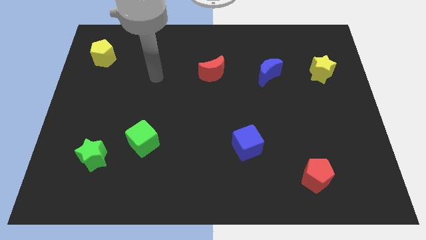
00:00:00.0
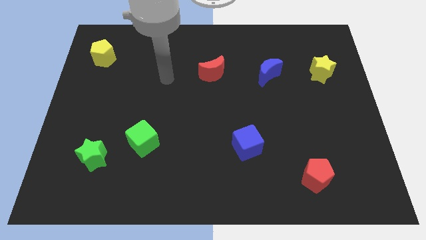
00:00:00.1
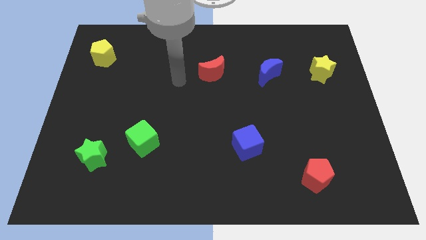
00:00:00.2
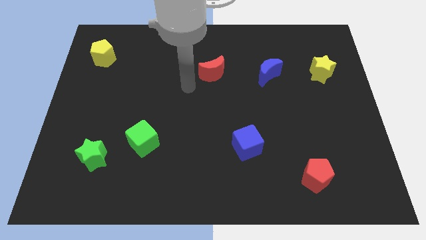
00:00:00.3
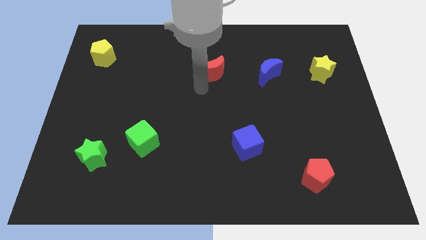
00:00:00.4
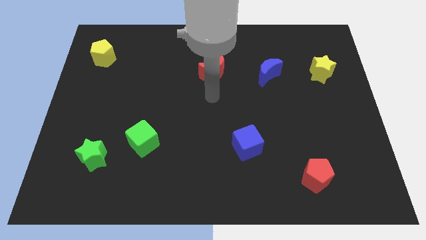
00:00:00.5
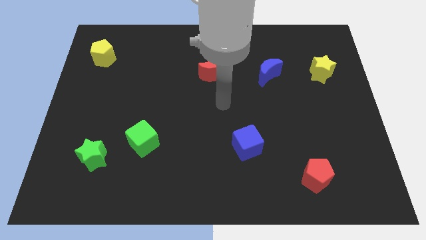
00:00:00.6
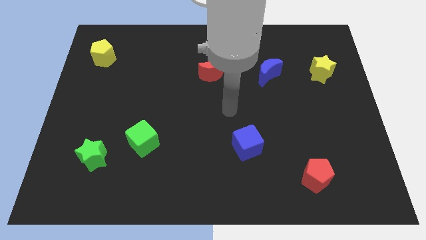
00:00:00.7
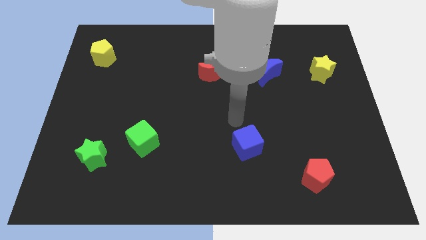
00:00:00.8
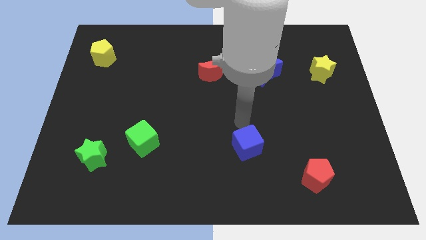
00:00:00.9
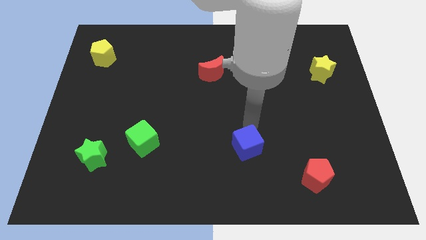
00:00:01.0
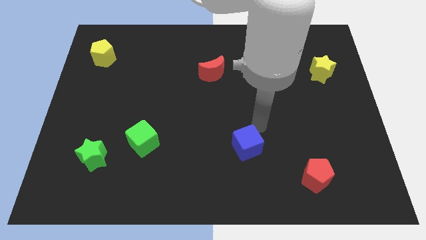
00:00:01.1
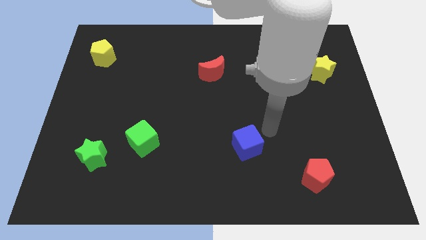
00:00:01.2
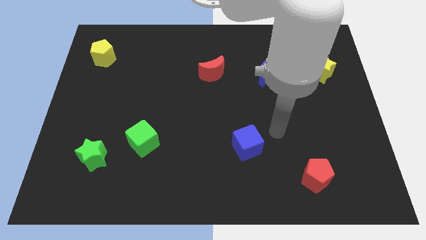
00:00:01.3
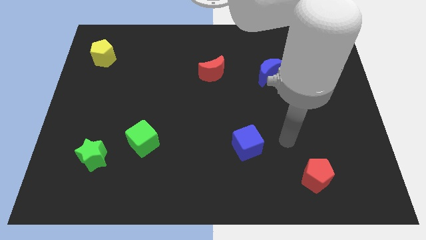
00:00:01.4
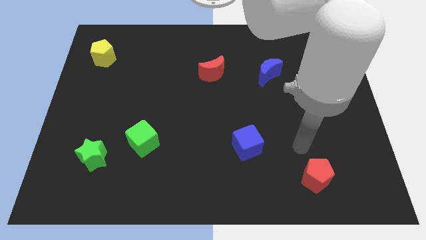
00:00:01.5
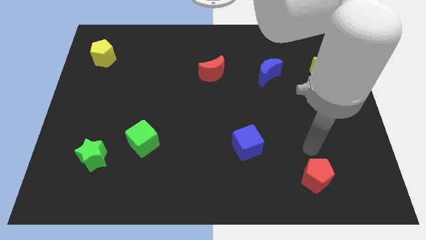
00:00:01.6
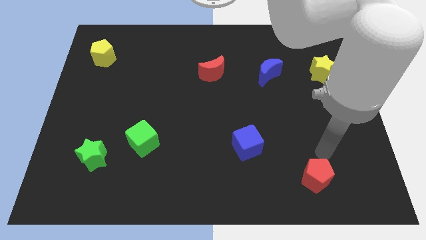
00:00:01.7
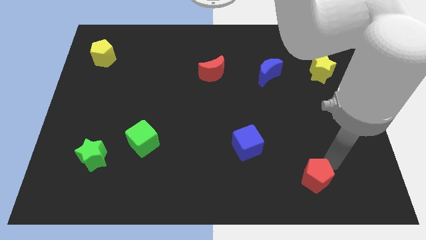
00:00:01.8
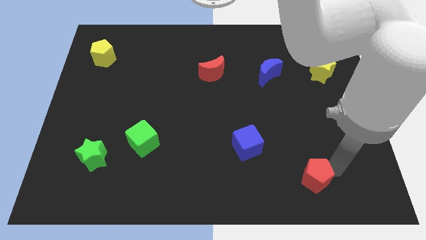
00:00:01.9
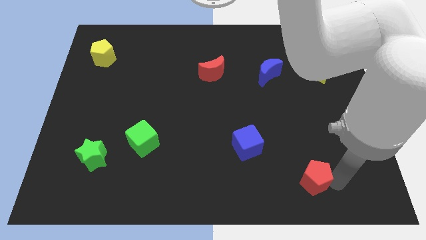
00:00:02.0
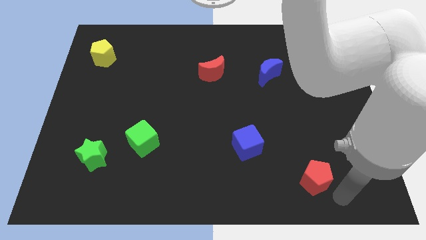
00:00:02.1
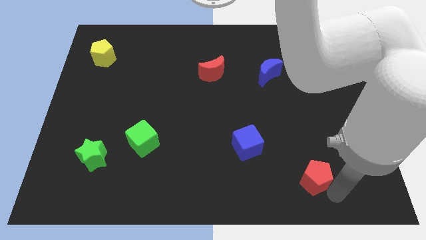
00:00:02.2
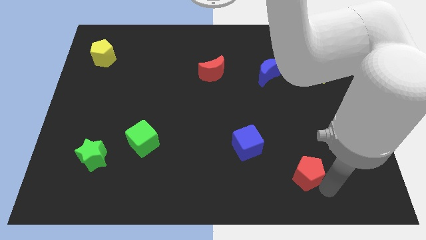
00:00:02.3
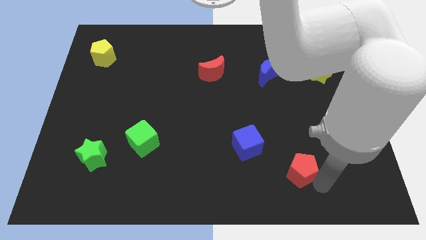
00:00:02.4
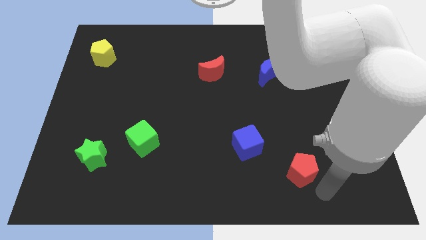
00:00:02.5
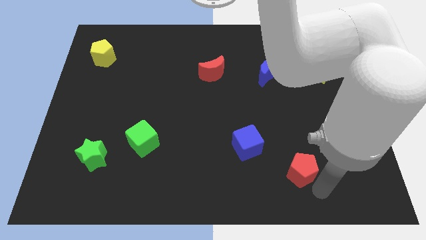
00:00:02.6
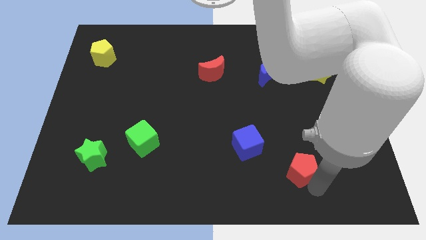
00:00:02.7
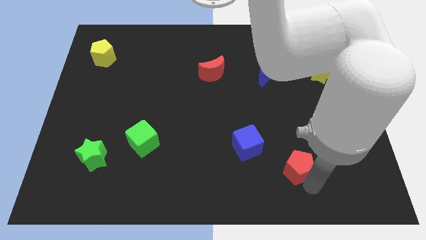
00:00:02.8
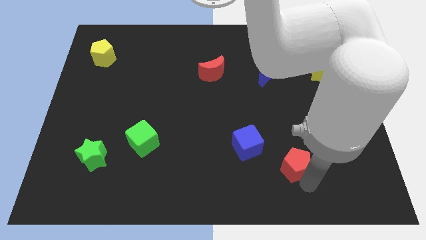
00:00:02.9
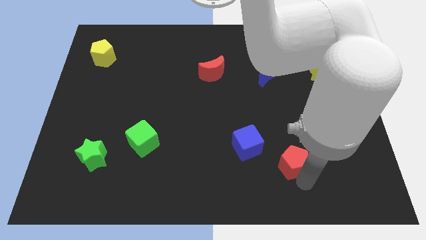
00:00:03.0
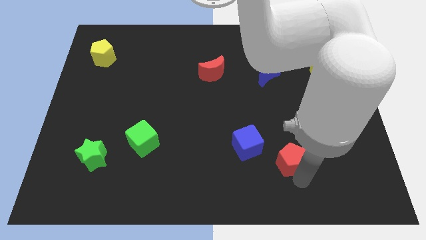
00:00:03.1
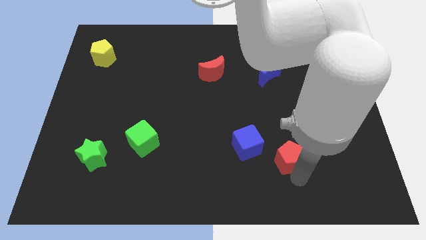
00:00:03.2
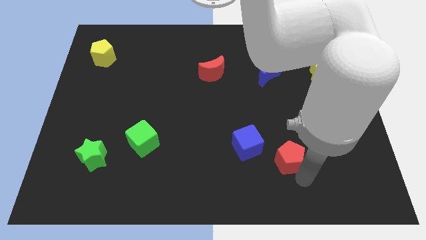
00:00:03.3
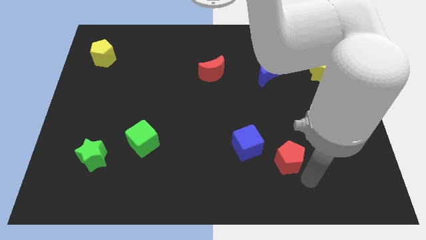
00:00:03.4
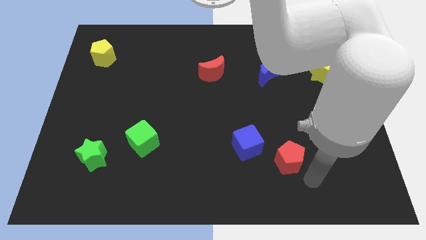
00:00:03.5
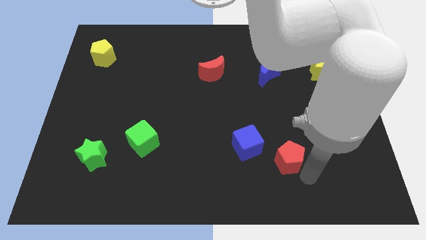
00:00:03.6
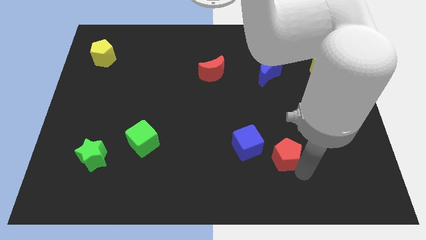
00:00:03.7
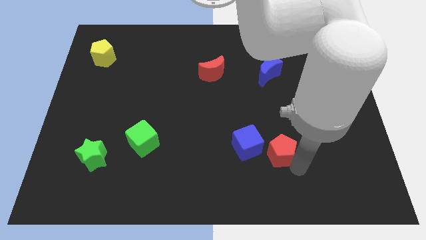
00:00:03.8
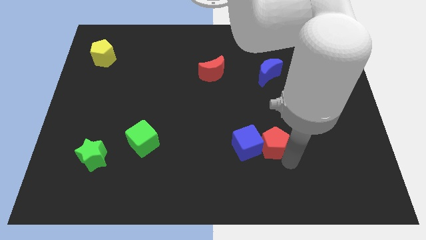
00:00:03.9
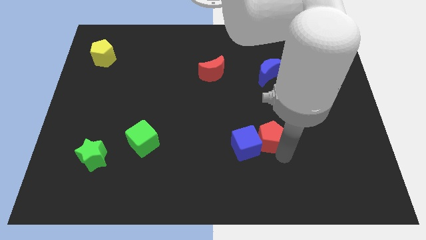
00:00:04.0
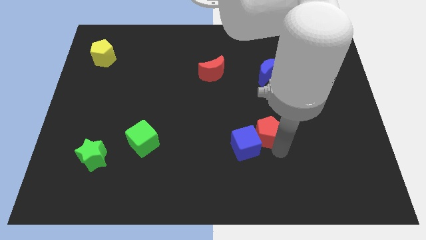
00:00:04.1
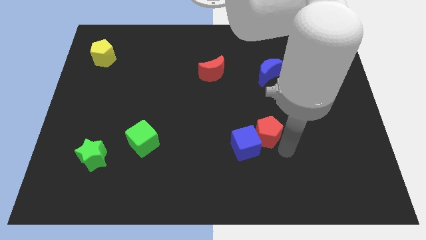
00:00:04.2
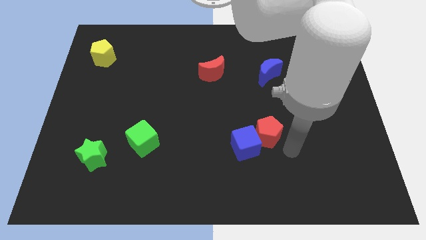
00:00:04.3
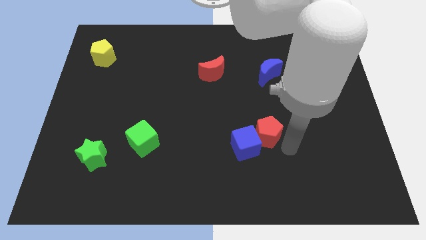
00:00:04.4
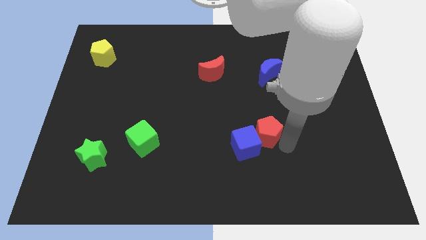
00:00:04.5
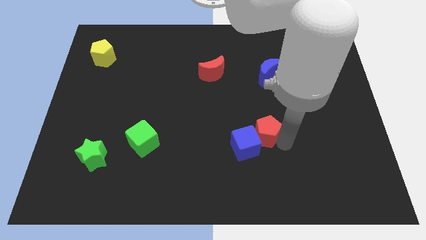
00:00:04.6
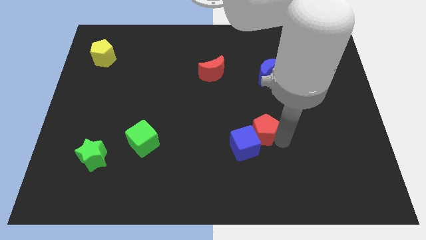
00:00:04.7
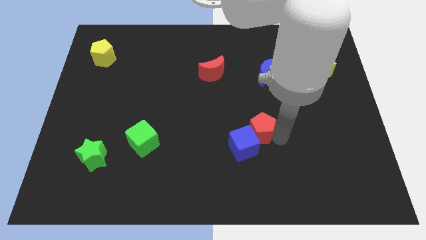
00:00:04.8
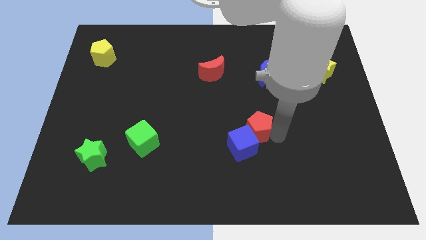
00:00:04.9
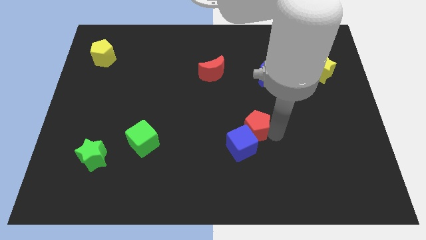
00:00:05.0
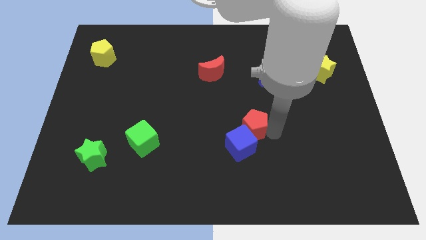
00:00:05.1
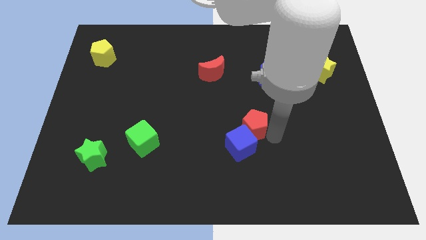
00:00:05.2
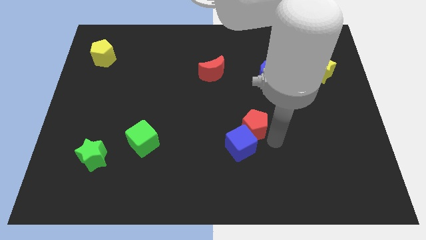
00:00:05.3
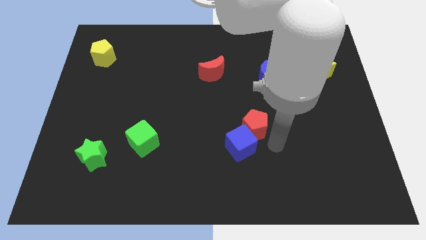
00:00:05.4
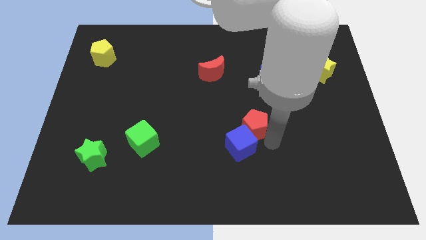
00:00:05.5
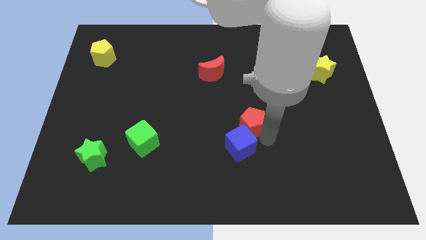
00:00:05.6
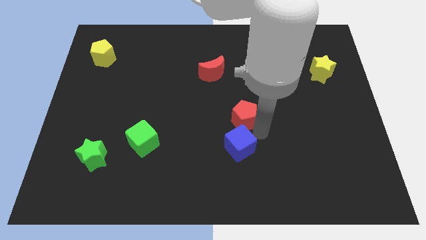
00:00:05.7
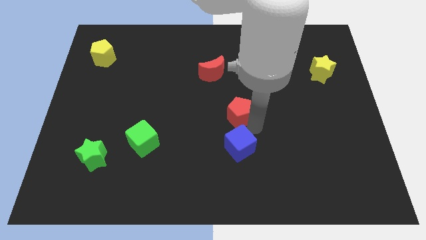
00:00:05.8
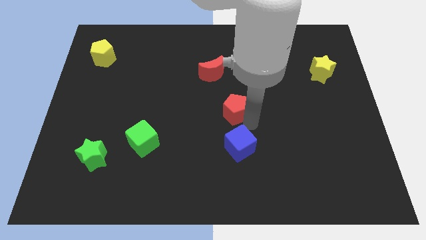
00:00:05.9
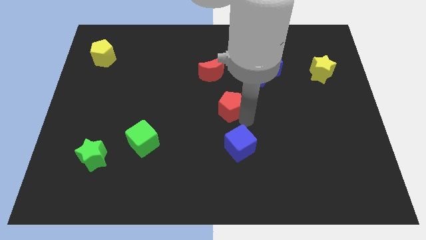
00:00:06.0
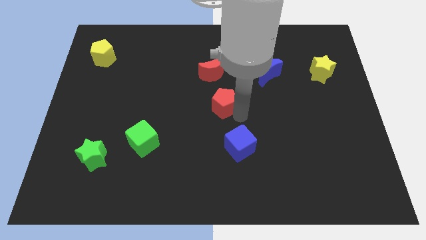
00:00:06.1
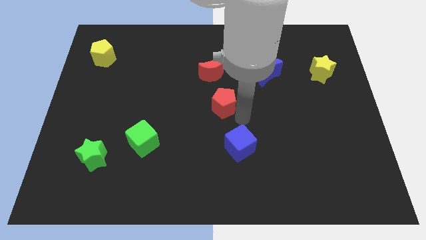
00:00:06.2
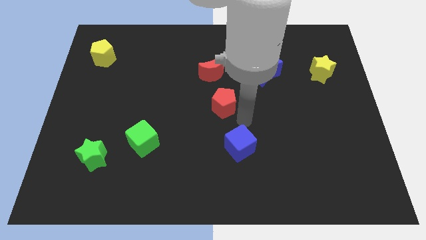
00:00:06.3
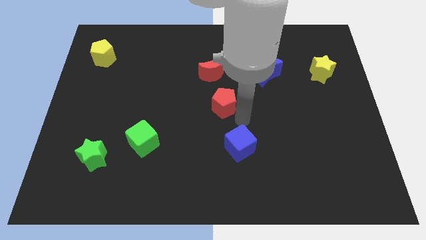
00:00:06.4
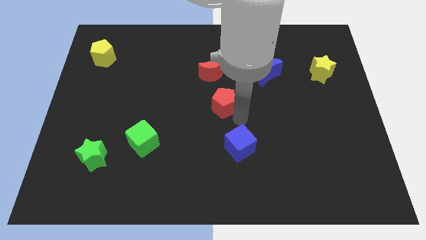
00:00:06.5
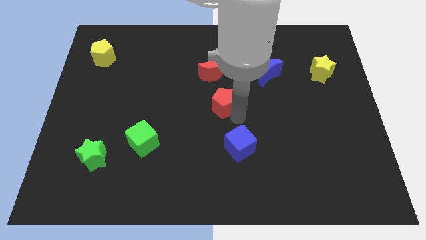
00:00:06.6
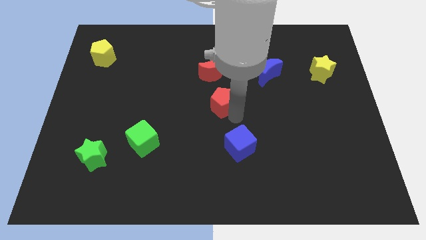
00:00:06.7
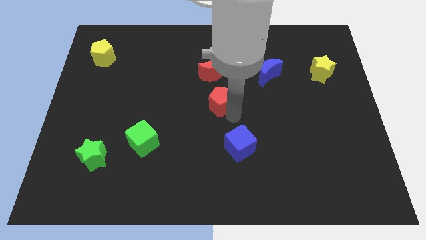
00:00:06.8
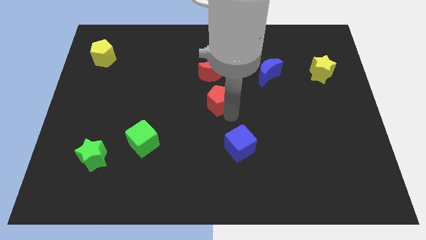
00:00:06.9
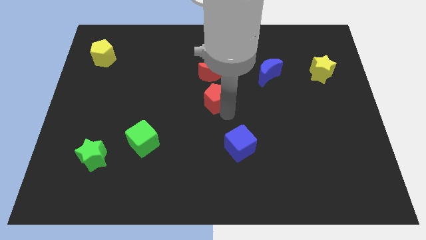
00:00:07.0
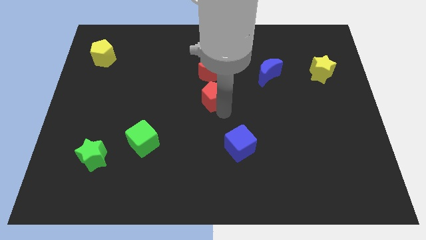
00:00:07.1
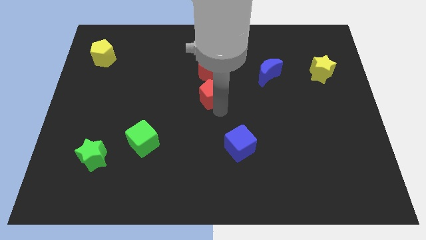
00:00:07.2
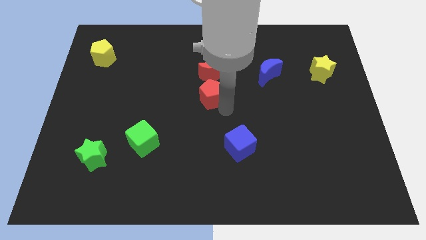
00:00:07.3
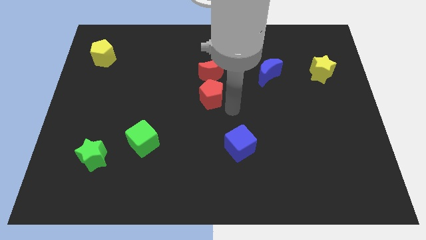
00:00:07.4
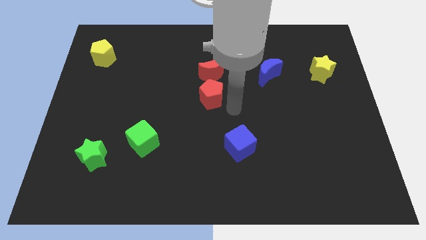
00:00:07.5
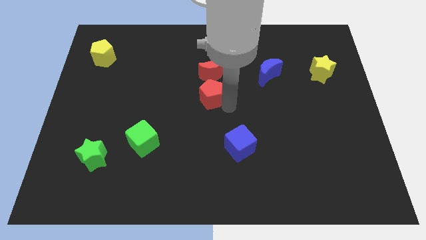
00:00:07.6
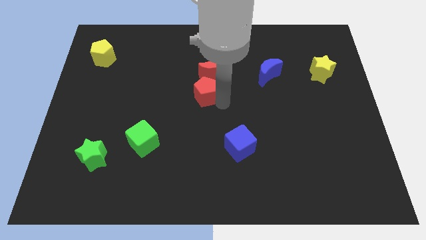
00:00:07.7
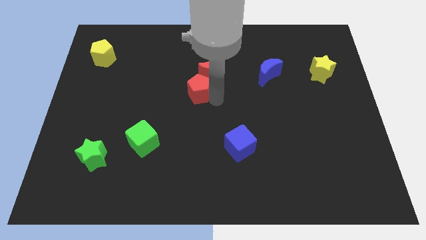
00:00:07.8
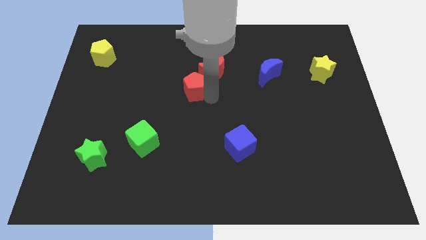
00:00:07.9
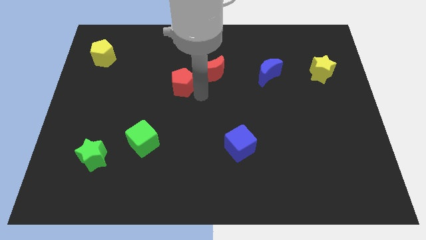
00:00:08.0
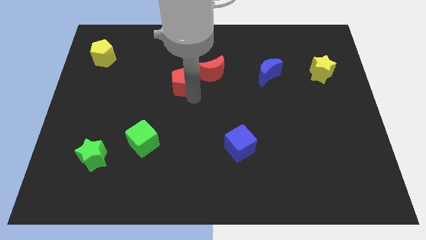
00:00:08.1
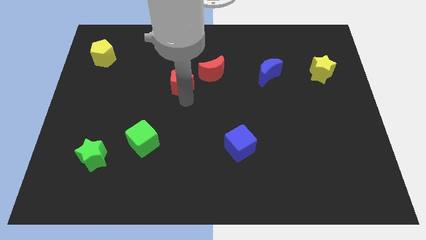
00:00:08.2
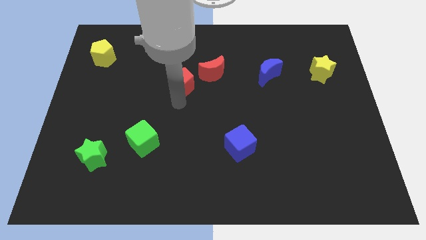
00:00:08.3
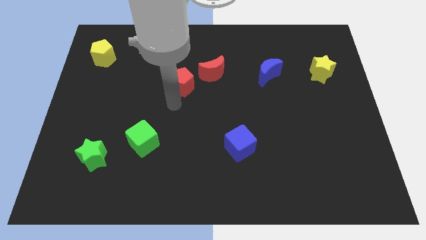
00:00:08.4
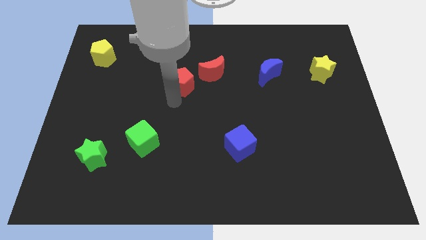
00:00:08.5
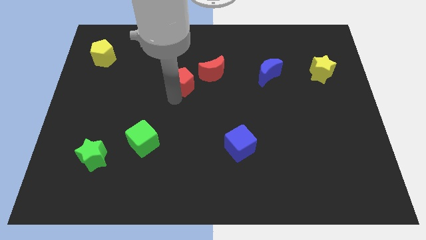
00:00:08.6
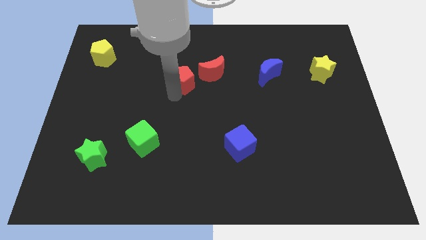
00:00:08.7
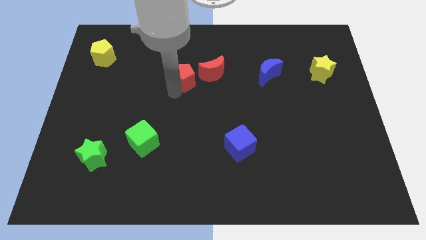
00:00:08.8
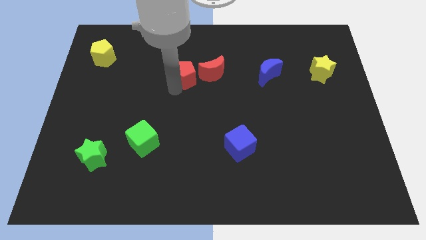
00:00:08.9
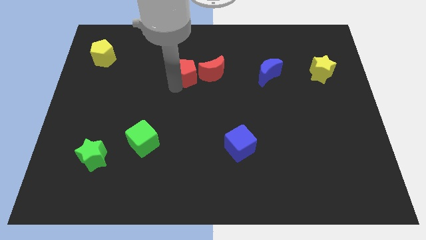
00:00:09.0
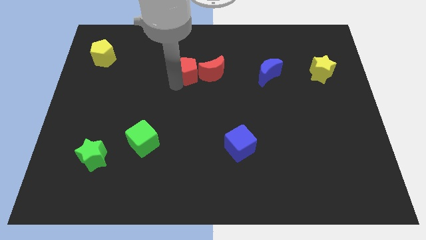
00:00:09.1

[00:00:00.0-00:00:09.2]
push the red pentagon to the top left side of the red moon
